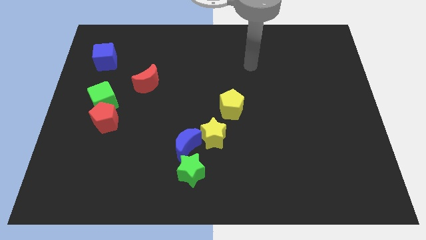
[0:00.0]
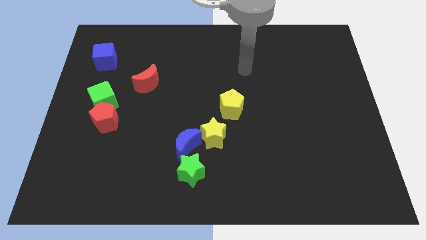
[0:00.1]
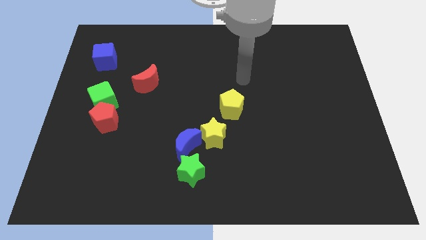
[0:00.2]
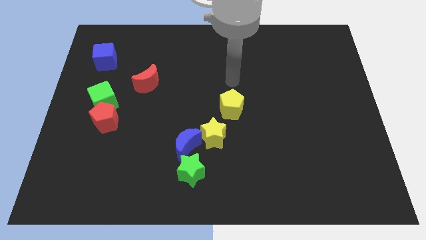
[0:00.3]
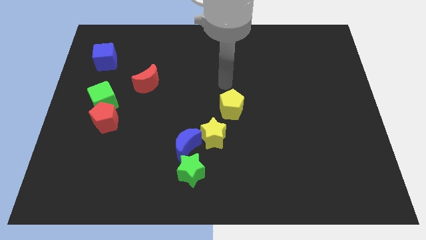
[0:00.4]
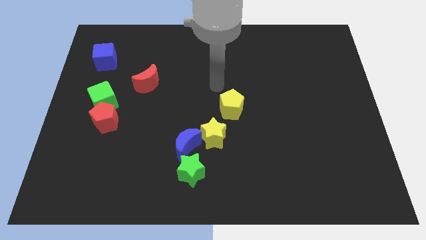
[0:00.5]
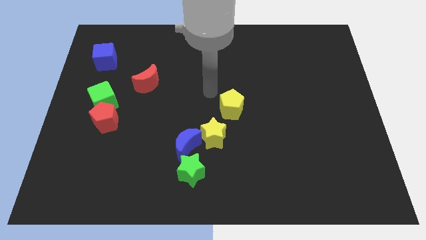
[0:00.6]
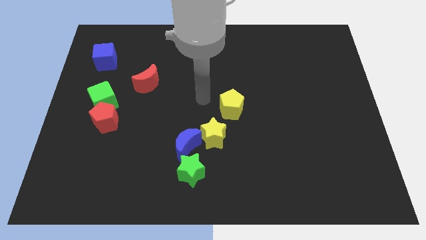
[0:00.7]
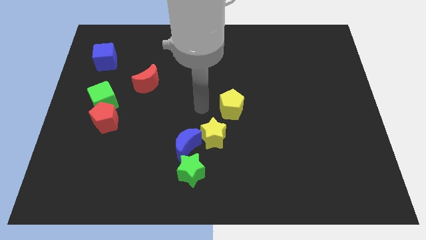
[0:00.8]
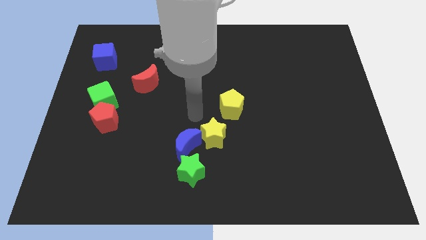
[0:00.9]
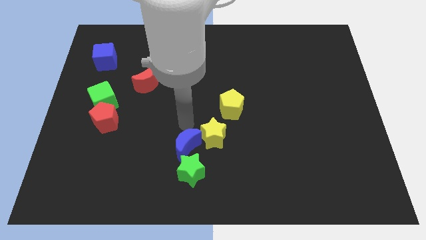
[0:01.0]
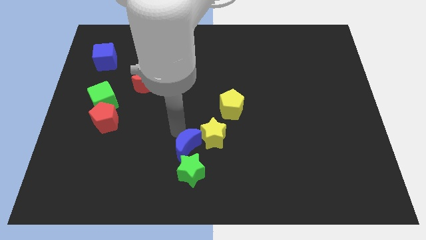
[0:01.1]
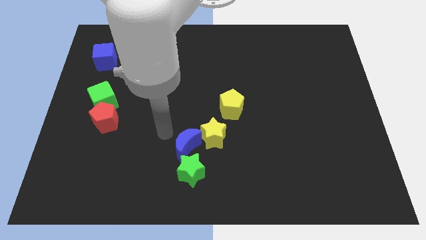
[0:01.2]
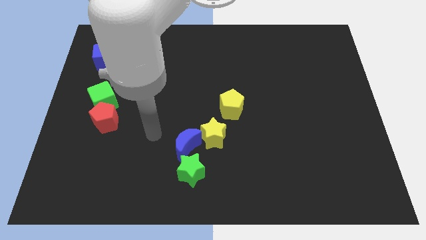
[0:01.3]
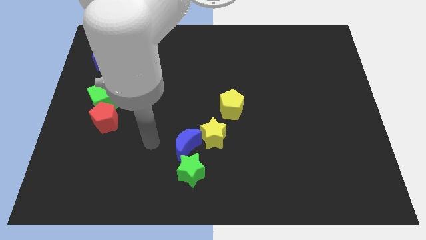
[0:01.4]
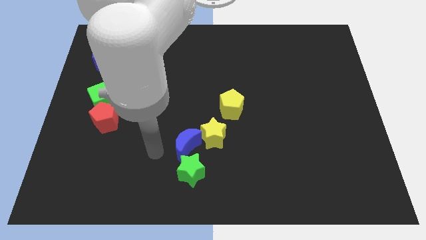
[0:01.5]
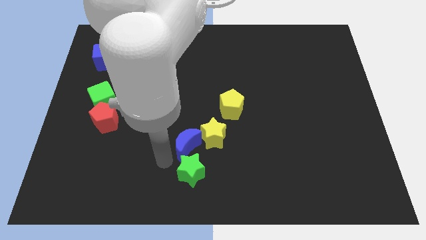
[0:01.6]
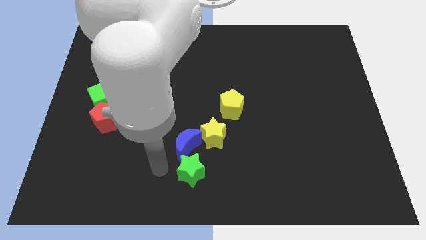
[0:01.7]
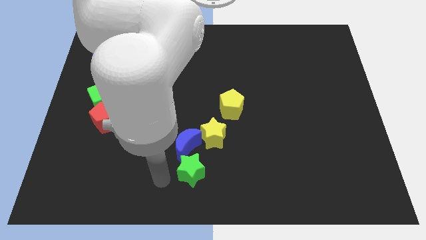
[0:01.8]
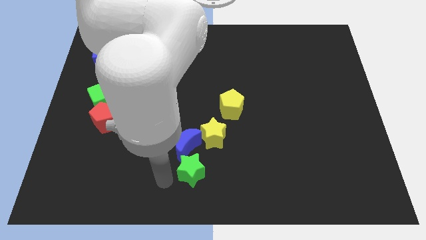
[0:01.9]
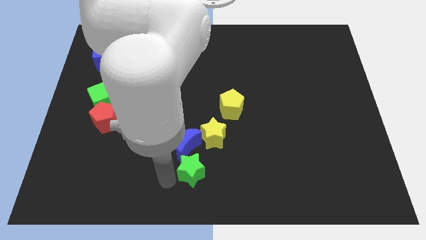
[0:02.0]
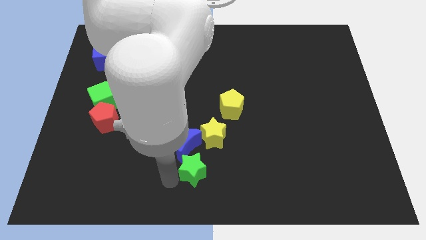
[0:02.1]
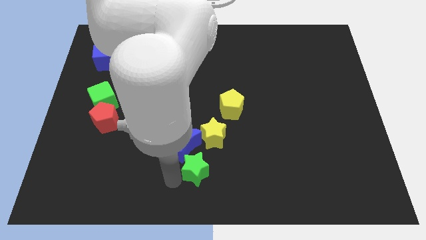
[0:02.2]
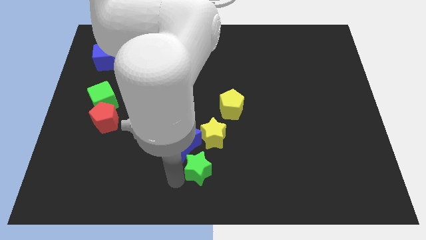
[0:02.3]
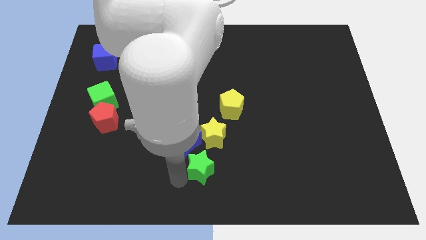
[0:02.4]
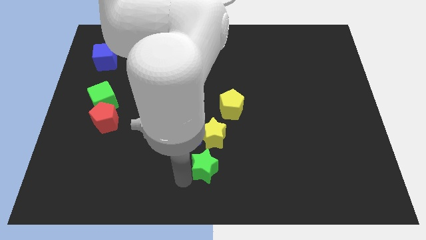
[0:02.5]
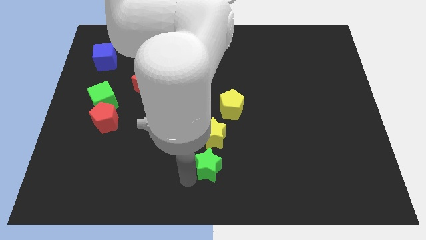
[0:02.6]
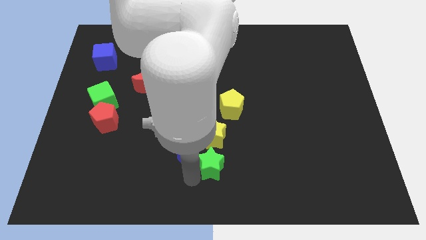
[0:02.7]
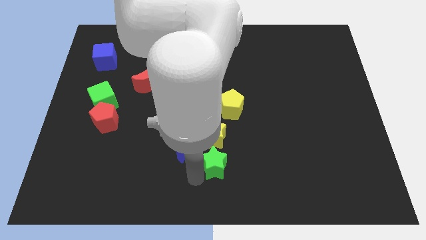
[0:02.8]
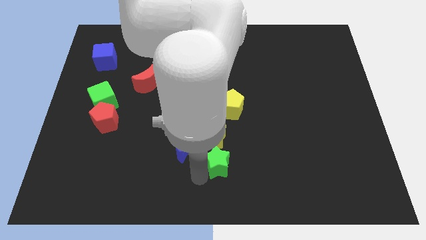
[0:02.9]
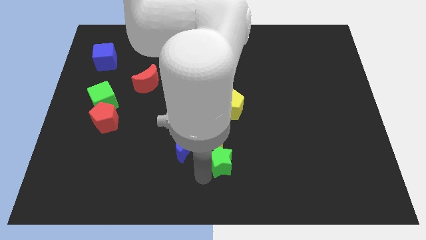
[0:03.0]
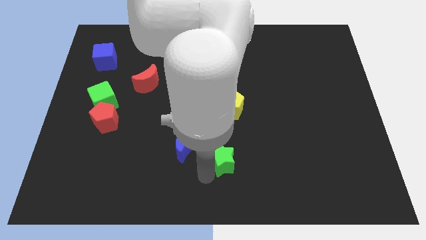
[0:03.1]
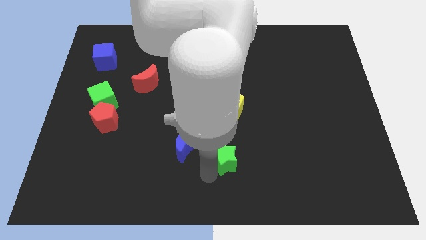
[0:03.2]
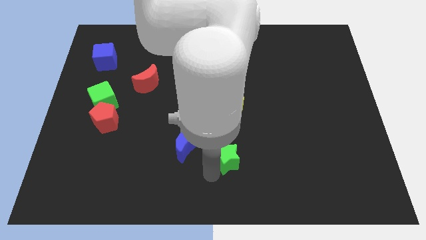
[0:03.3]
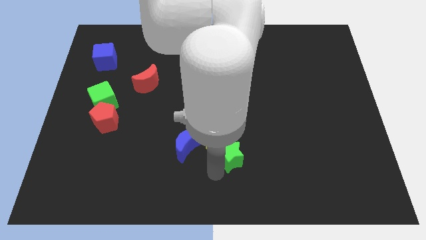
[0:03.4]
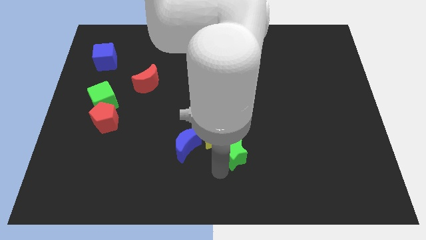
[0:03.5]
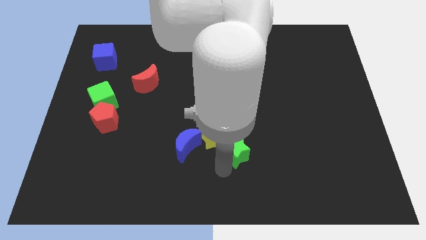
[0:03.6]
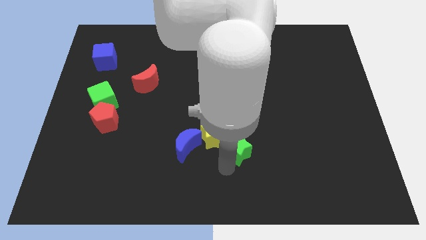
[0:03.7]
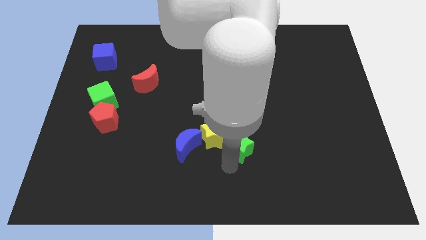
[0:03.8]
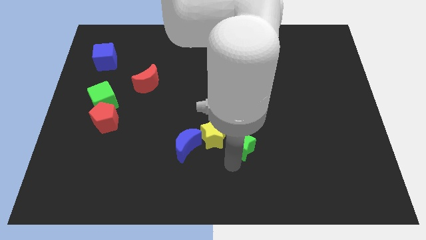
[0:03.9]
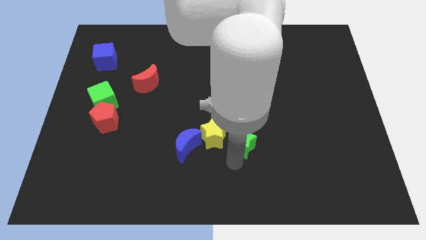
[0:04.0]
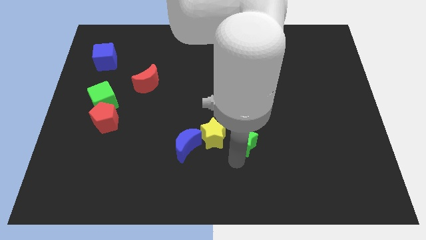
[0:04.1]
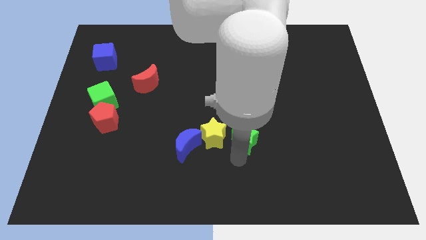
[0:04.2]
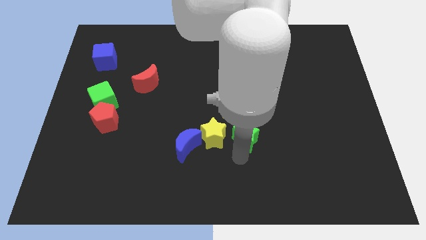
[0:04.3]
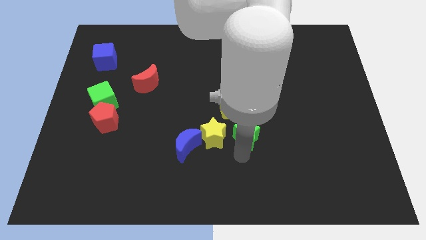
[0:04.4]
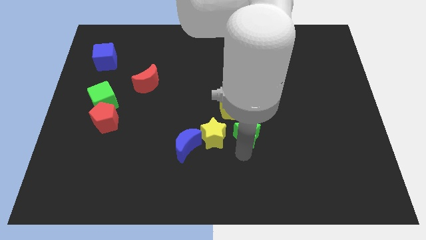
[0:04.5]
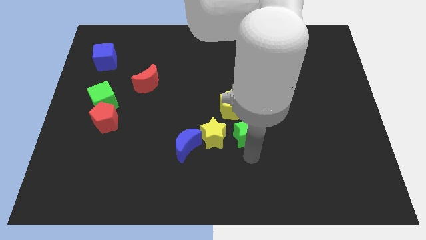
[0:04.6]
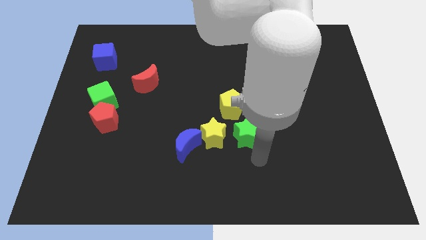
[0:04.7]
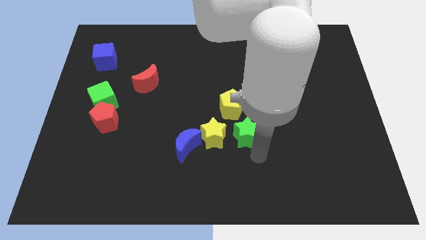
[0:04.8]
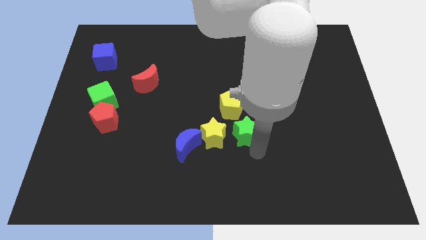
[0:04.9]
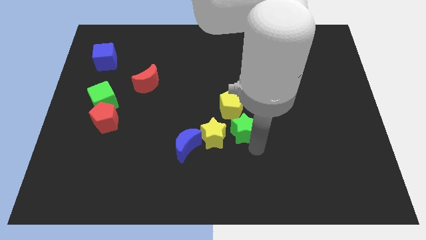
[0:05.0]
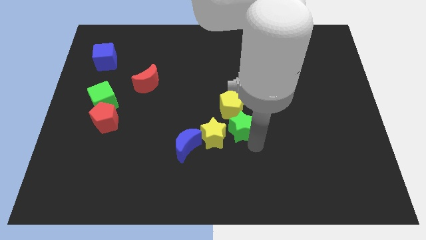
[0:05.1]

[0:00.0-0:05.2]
move the green star close to the yellow pentagon

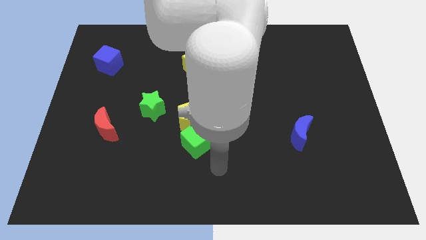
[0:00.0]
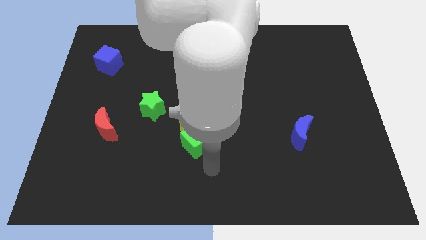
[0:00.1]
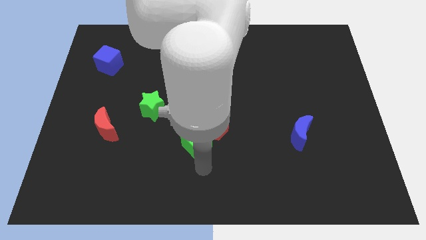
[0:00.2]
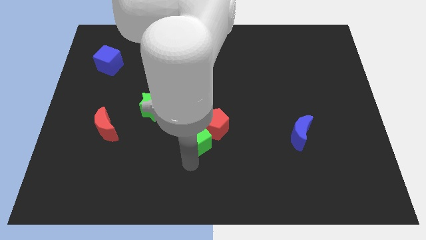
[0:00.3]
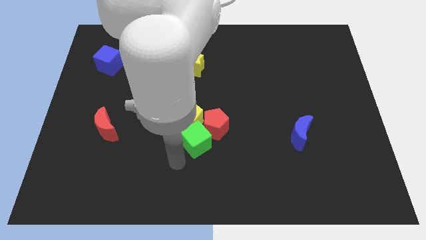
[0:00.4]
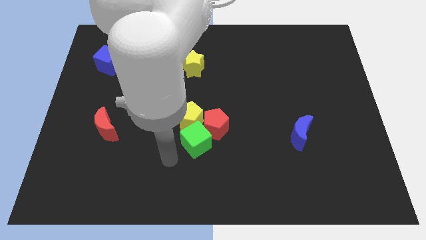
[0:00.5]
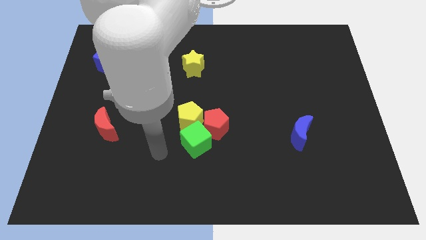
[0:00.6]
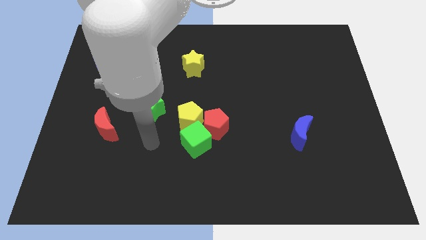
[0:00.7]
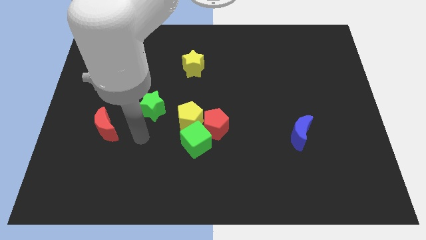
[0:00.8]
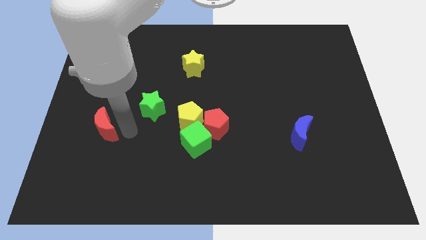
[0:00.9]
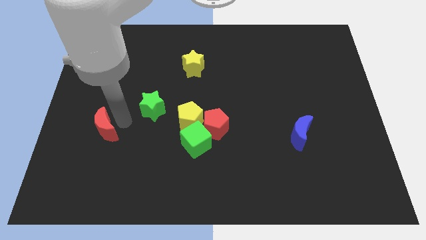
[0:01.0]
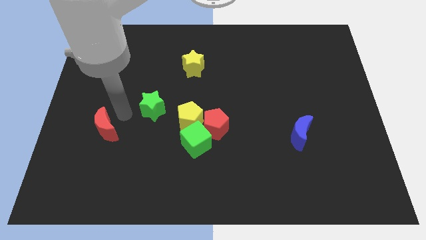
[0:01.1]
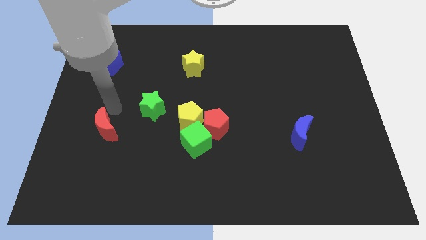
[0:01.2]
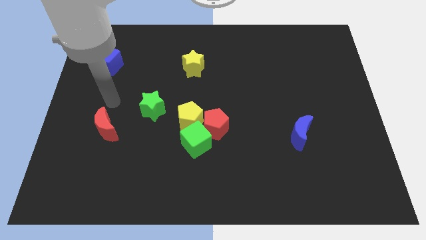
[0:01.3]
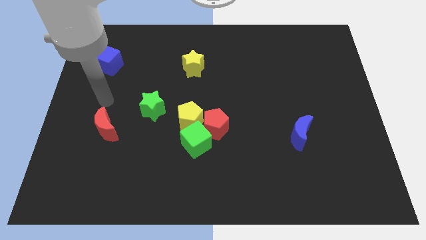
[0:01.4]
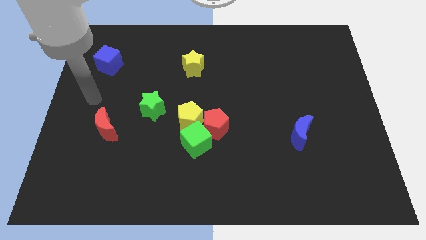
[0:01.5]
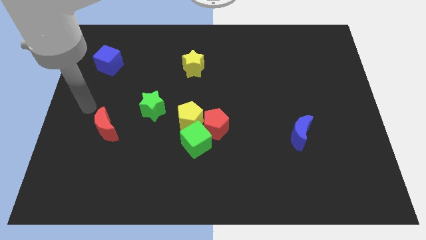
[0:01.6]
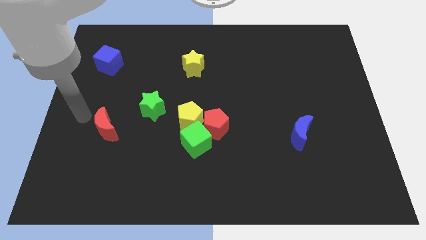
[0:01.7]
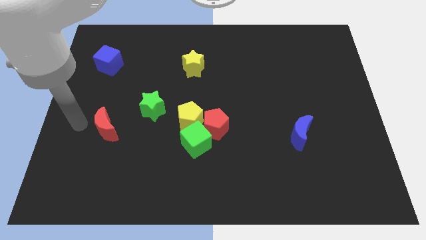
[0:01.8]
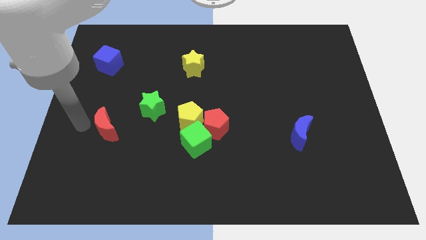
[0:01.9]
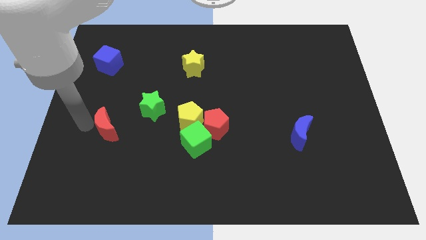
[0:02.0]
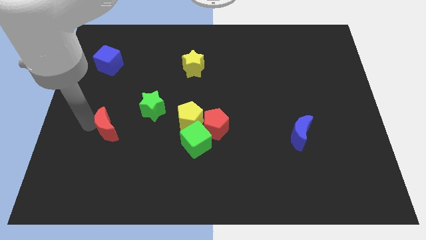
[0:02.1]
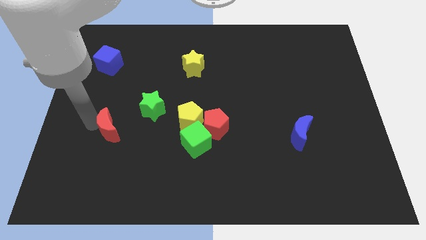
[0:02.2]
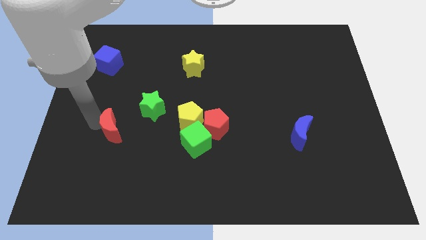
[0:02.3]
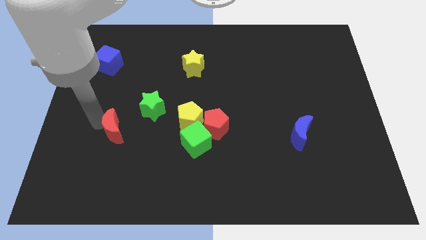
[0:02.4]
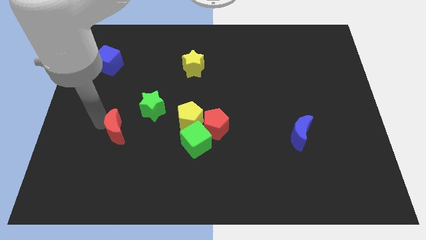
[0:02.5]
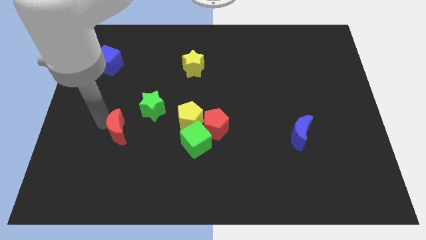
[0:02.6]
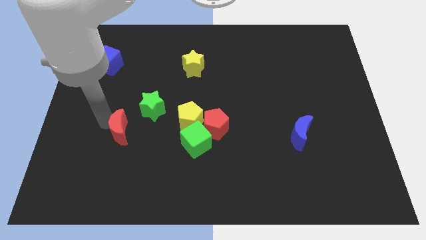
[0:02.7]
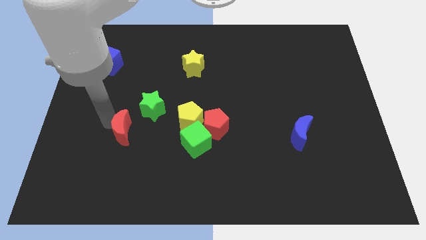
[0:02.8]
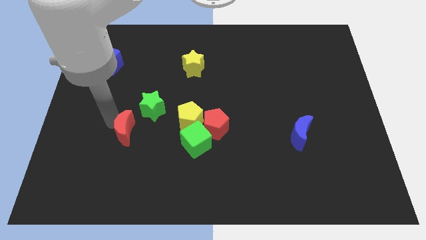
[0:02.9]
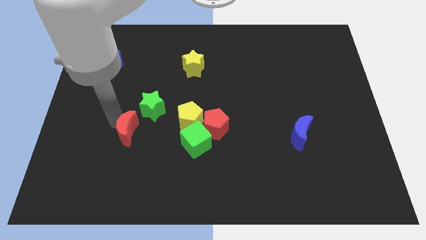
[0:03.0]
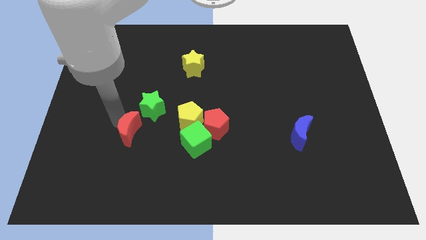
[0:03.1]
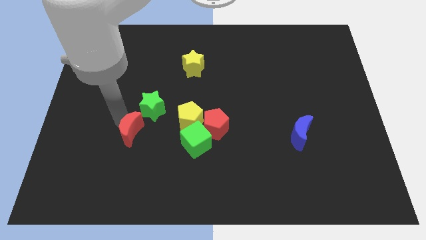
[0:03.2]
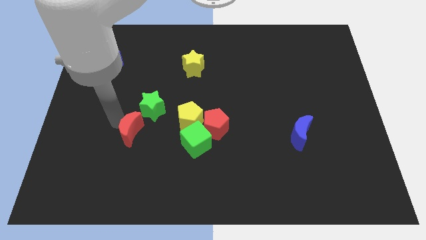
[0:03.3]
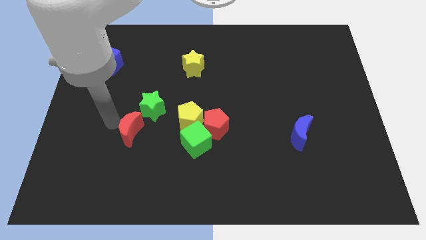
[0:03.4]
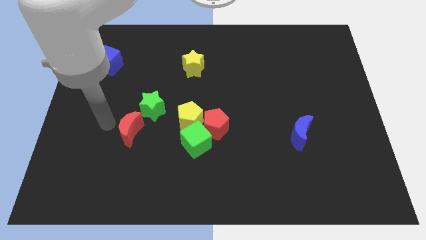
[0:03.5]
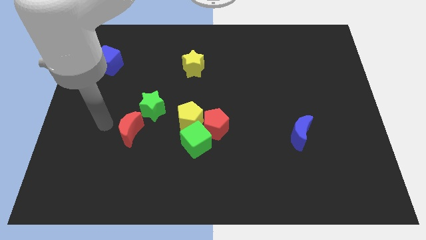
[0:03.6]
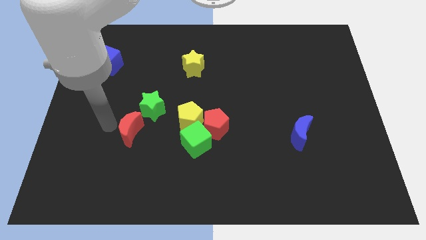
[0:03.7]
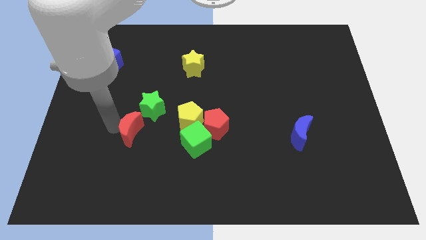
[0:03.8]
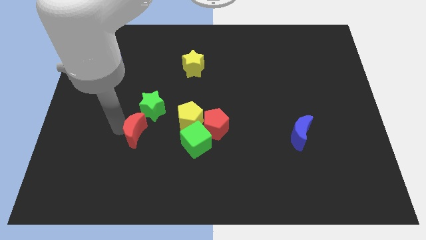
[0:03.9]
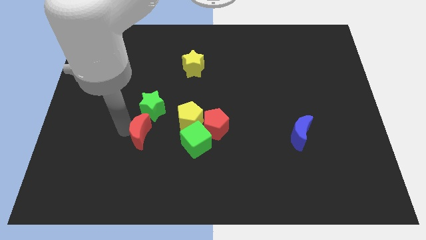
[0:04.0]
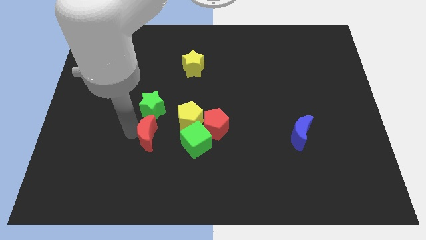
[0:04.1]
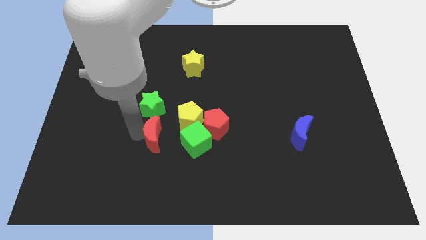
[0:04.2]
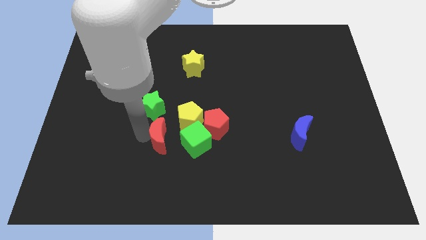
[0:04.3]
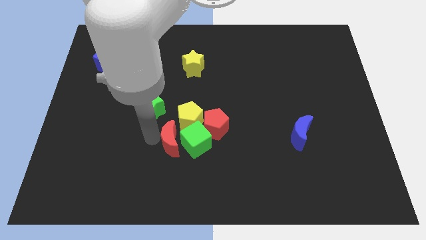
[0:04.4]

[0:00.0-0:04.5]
push the red moon close to the green cube
